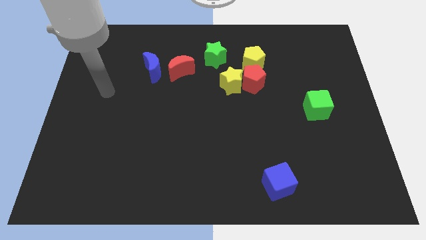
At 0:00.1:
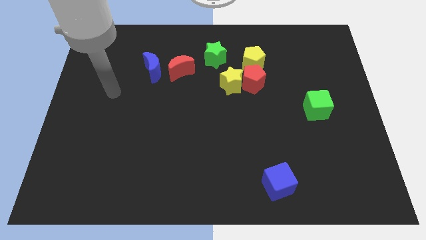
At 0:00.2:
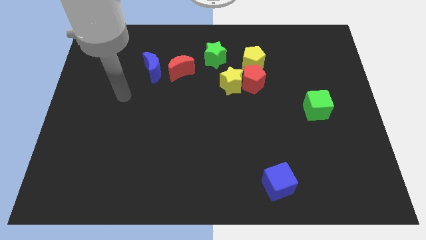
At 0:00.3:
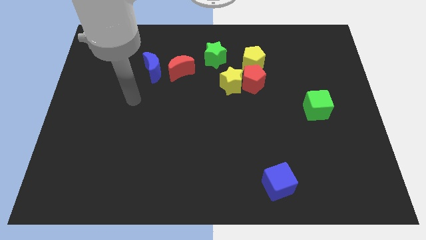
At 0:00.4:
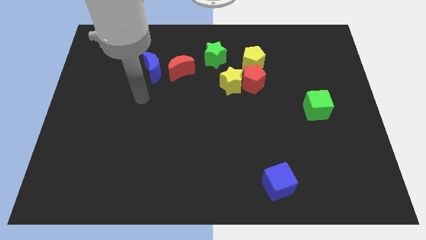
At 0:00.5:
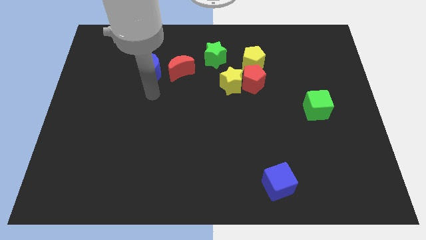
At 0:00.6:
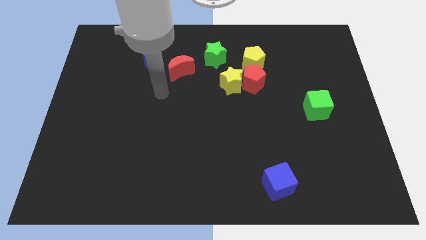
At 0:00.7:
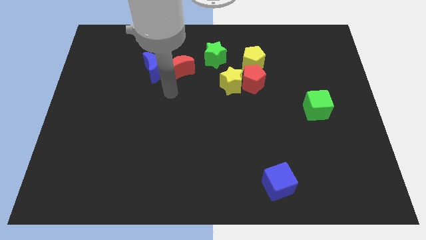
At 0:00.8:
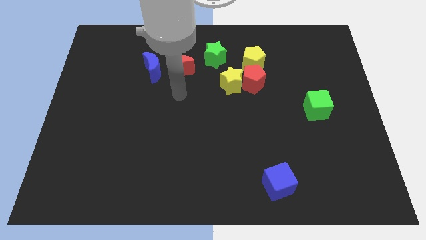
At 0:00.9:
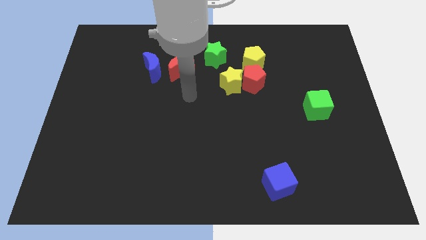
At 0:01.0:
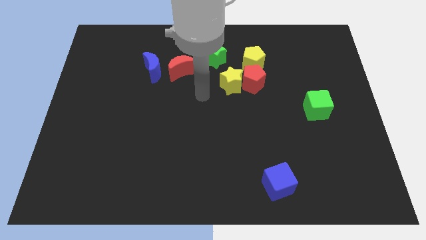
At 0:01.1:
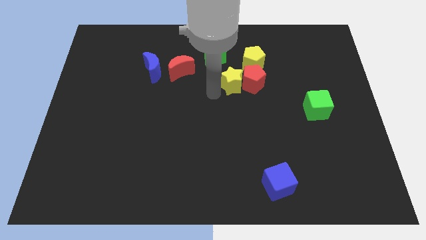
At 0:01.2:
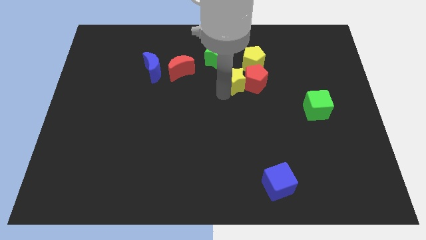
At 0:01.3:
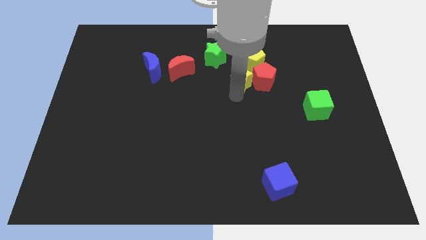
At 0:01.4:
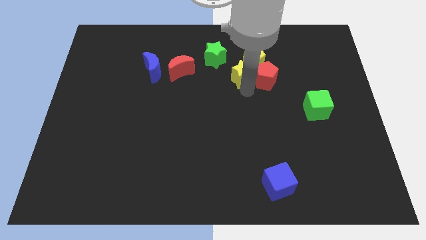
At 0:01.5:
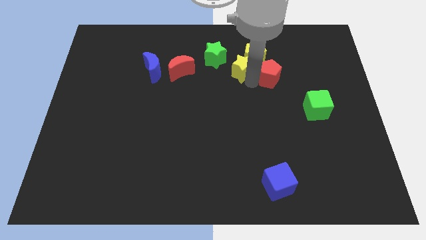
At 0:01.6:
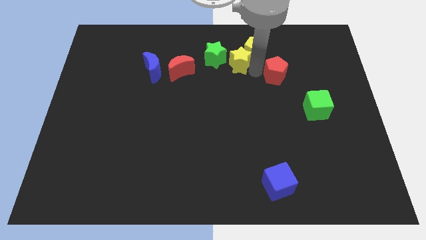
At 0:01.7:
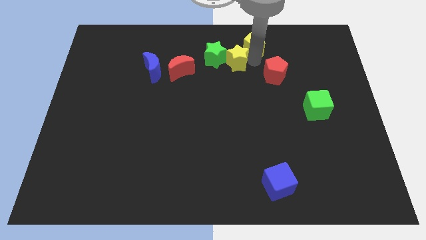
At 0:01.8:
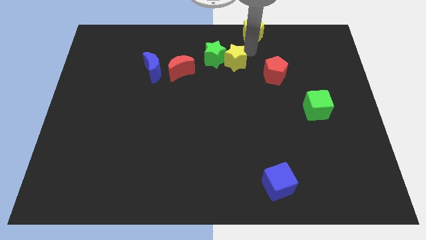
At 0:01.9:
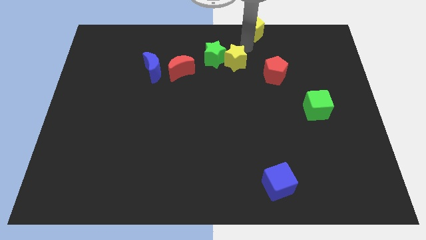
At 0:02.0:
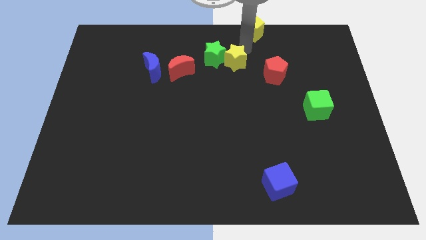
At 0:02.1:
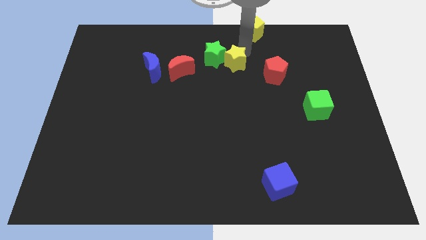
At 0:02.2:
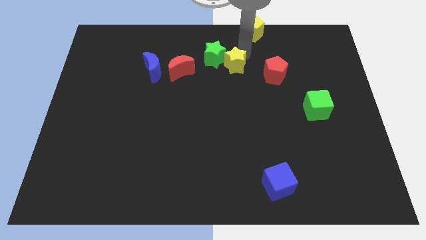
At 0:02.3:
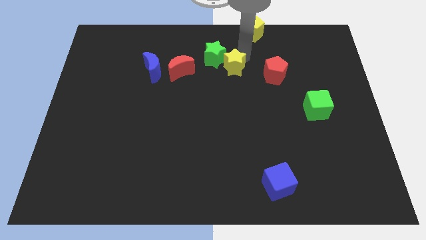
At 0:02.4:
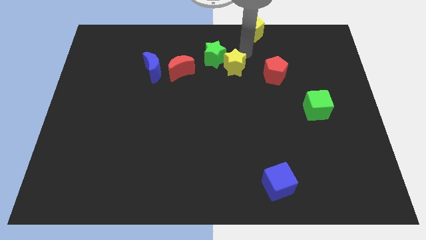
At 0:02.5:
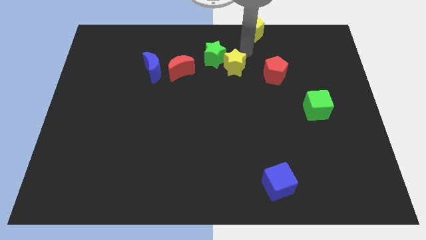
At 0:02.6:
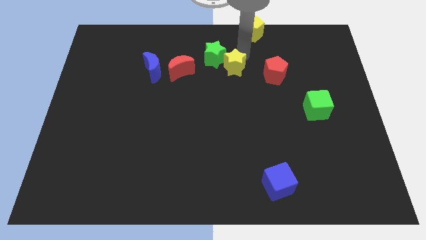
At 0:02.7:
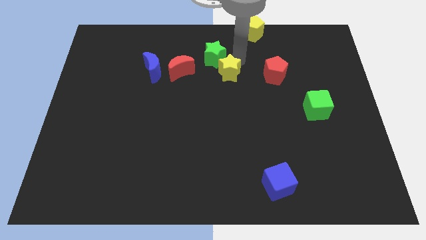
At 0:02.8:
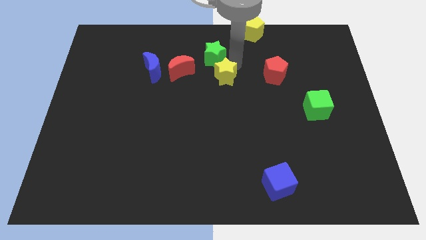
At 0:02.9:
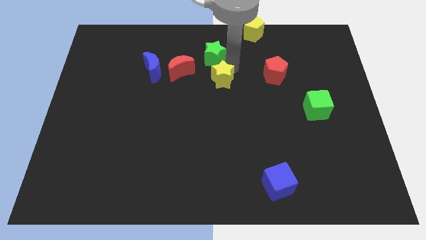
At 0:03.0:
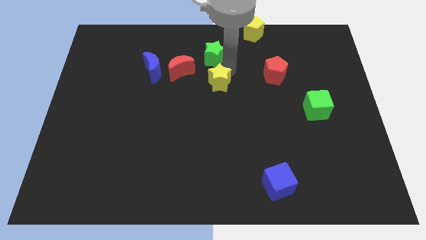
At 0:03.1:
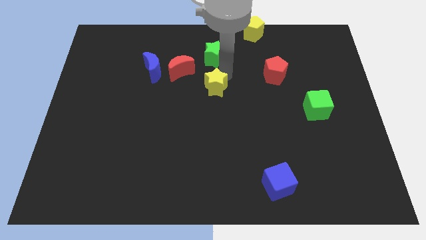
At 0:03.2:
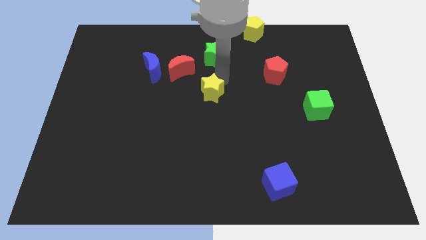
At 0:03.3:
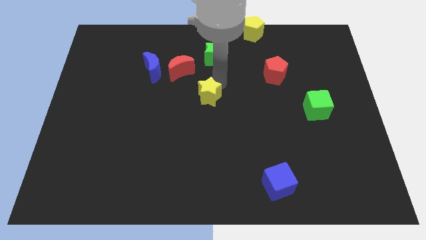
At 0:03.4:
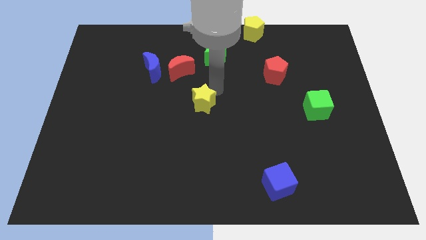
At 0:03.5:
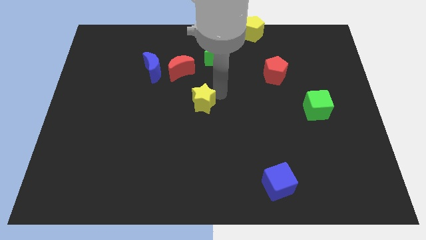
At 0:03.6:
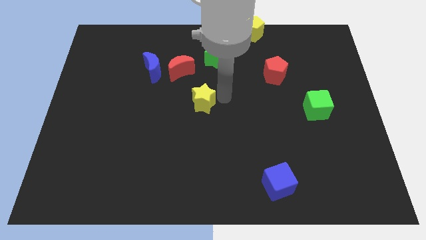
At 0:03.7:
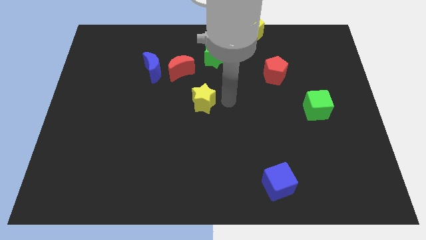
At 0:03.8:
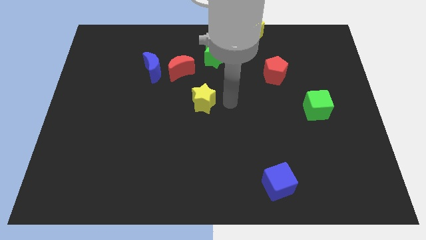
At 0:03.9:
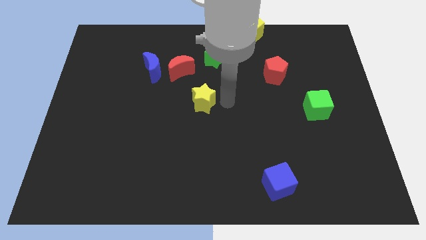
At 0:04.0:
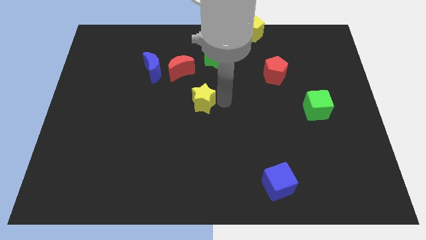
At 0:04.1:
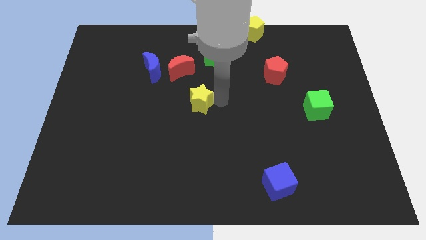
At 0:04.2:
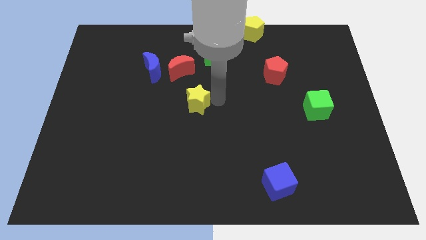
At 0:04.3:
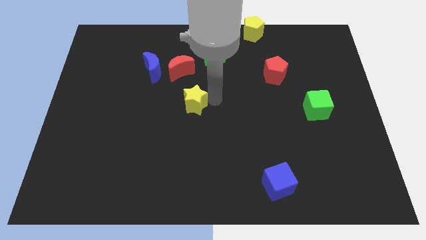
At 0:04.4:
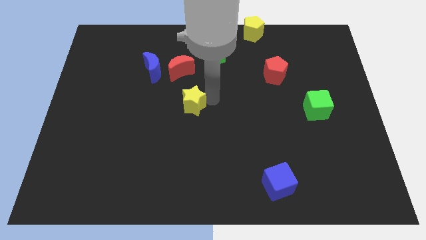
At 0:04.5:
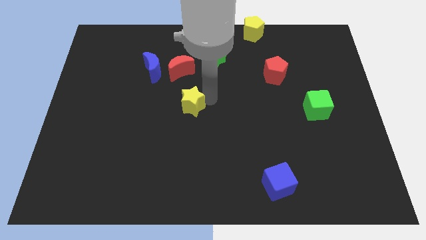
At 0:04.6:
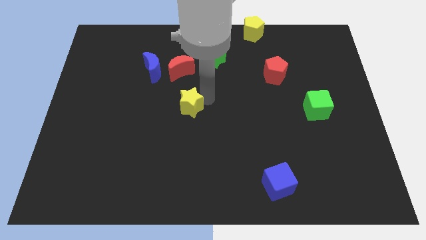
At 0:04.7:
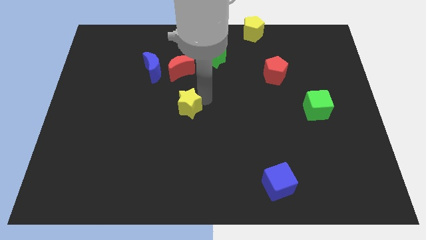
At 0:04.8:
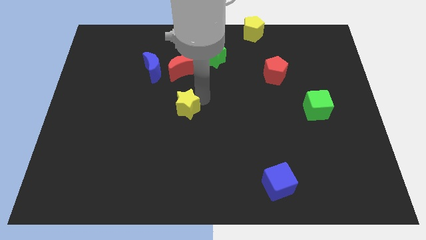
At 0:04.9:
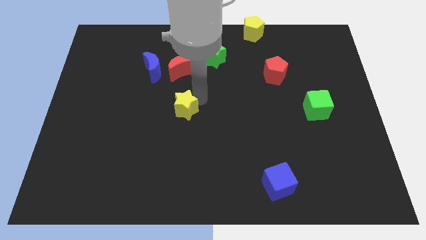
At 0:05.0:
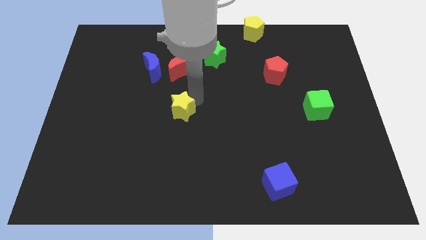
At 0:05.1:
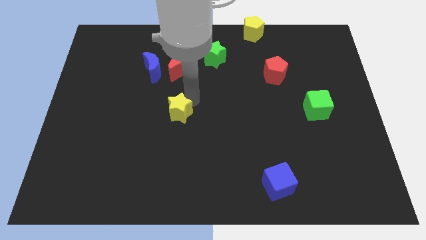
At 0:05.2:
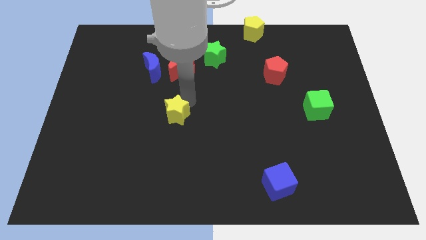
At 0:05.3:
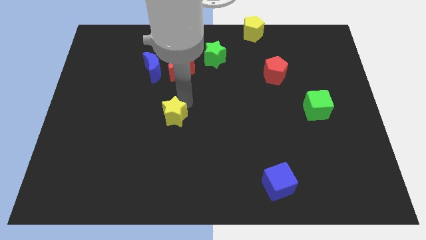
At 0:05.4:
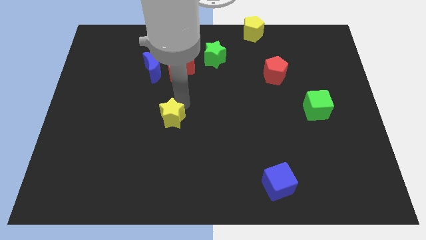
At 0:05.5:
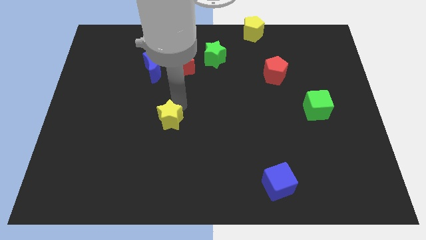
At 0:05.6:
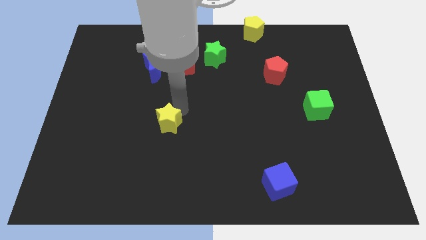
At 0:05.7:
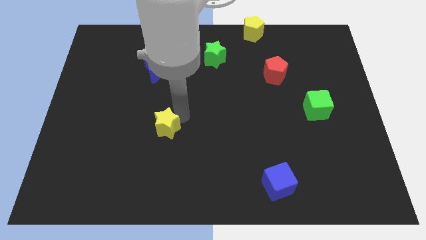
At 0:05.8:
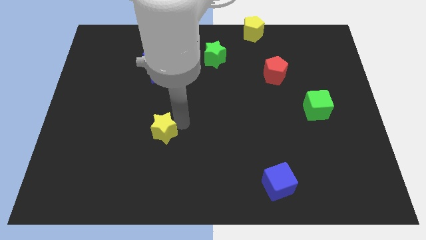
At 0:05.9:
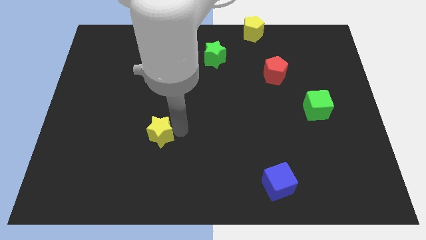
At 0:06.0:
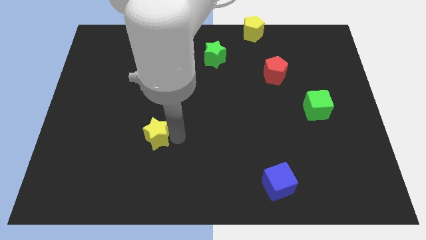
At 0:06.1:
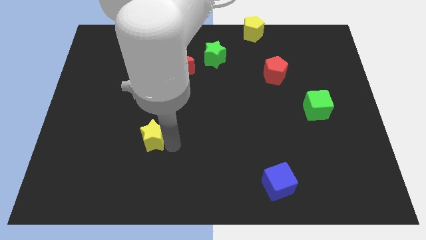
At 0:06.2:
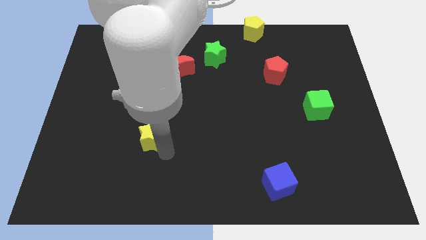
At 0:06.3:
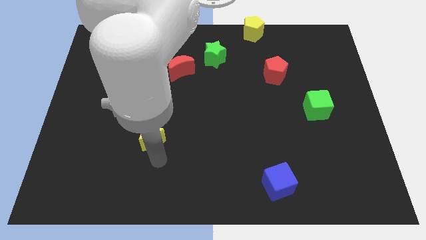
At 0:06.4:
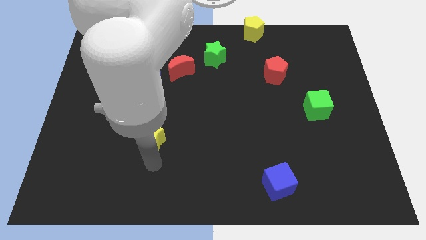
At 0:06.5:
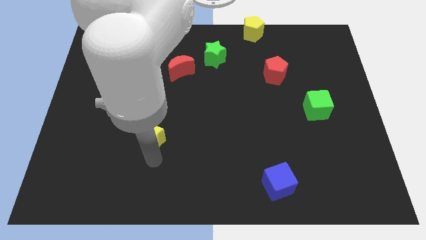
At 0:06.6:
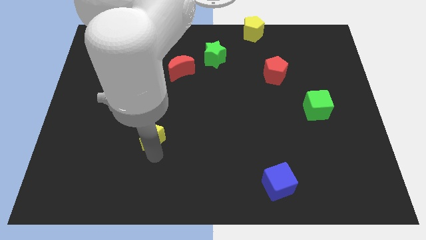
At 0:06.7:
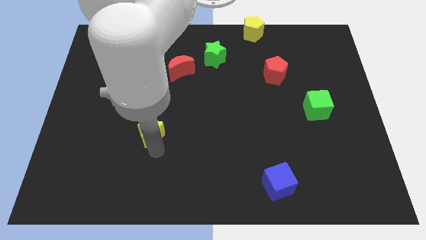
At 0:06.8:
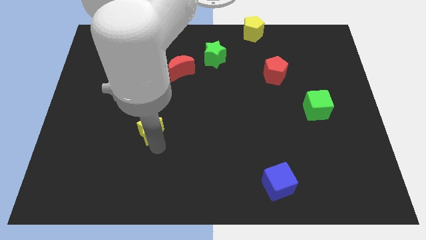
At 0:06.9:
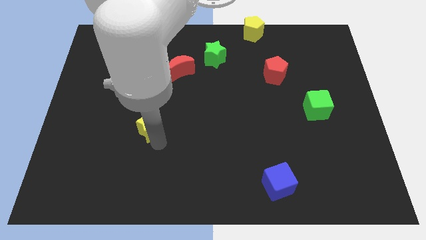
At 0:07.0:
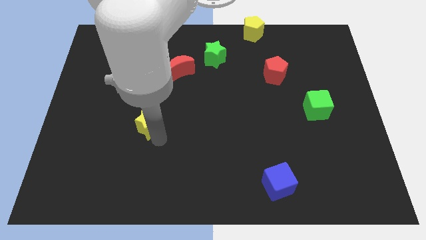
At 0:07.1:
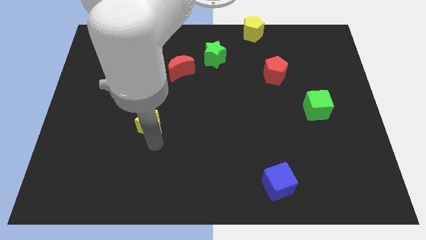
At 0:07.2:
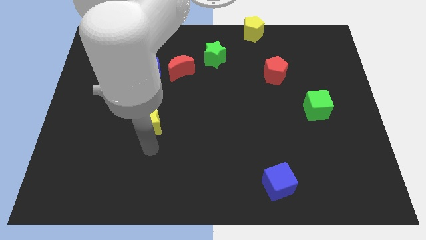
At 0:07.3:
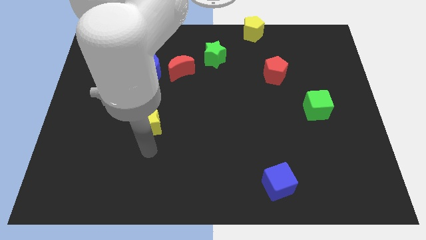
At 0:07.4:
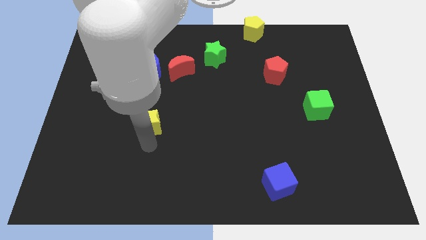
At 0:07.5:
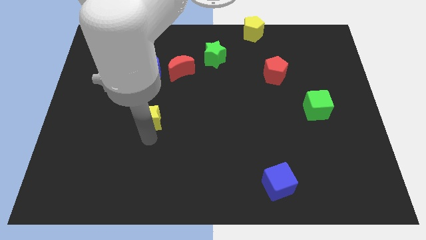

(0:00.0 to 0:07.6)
slide the yellow star below the blue moon
